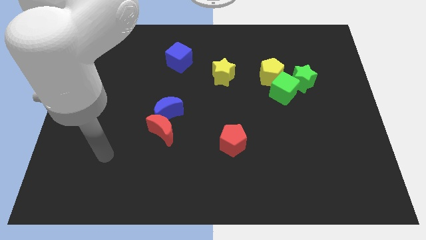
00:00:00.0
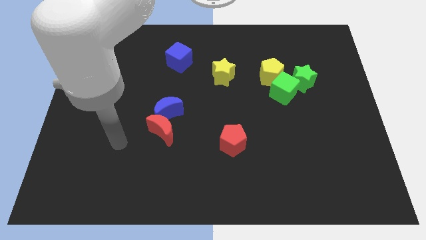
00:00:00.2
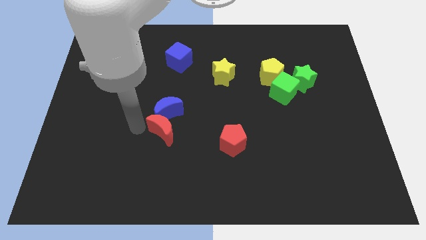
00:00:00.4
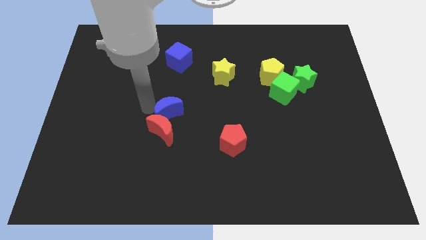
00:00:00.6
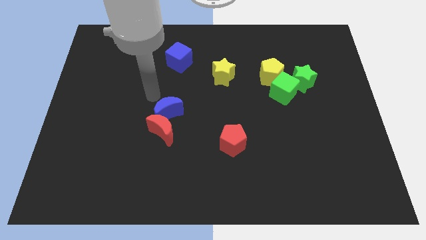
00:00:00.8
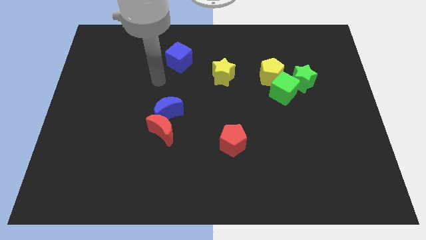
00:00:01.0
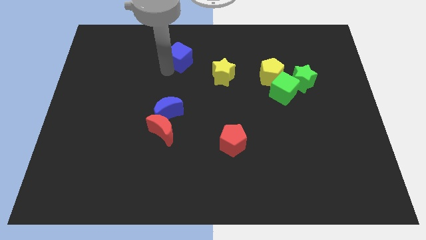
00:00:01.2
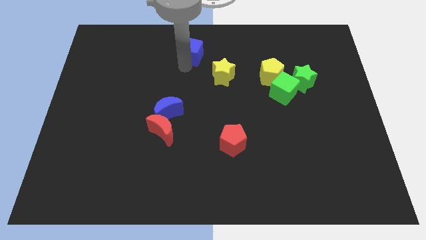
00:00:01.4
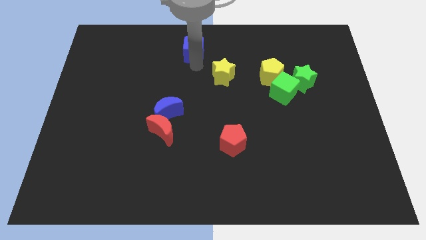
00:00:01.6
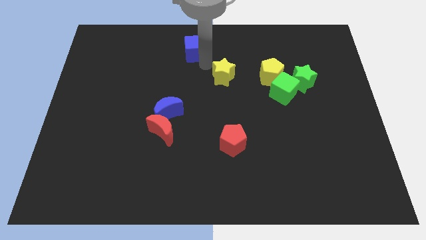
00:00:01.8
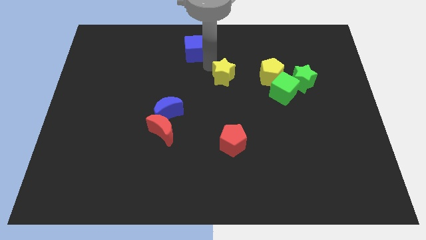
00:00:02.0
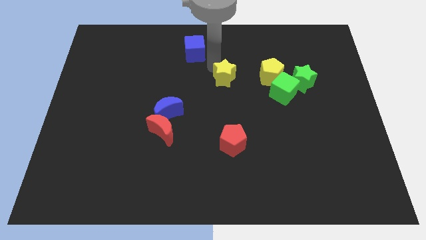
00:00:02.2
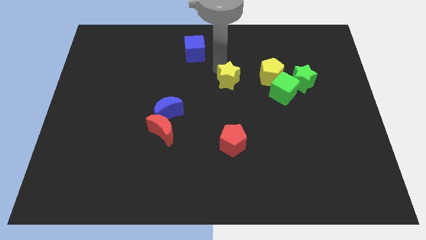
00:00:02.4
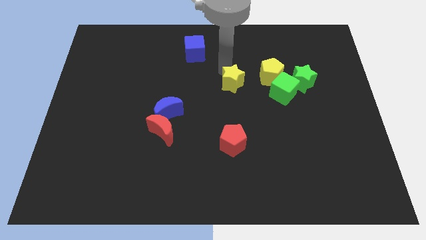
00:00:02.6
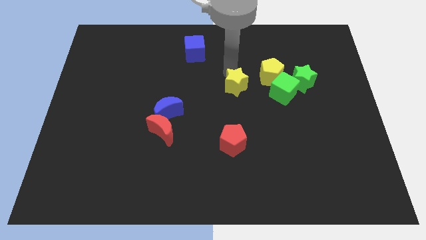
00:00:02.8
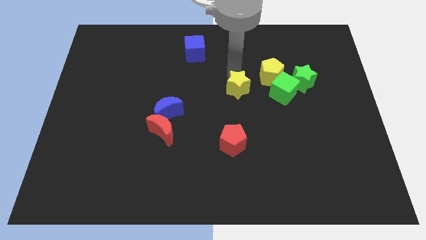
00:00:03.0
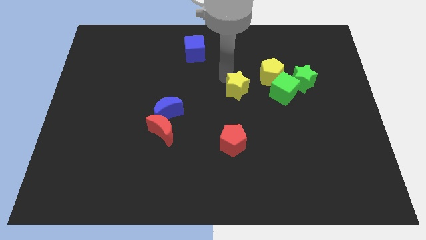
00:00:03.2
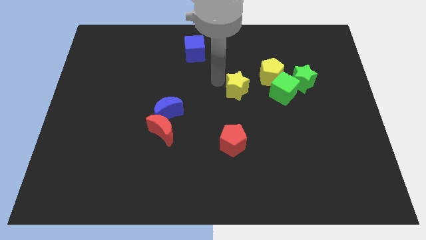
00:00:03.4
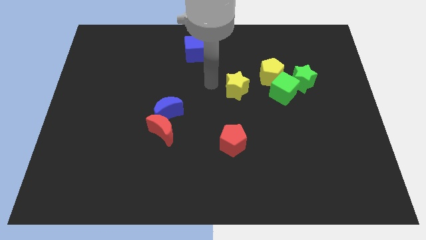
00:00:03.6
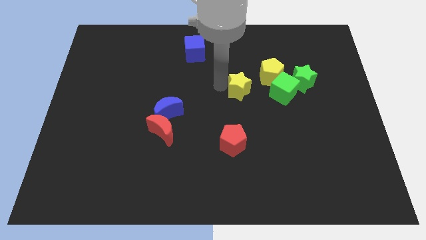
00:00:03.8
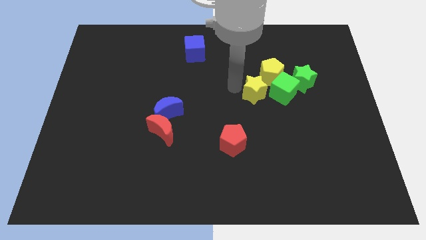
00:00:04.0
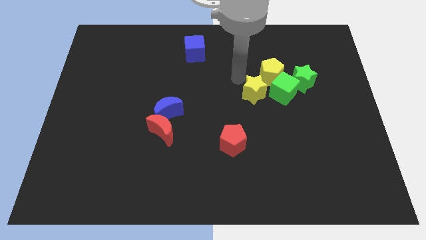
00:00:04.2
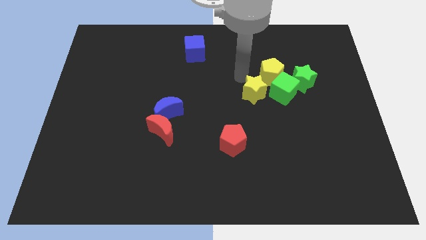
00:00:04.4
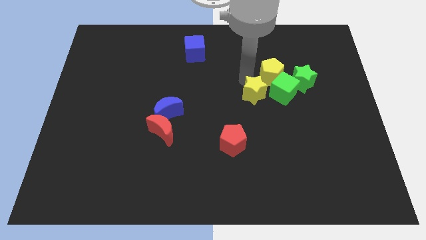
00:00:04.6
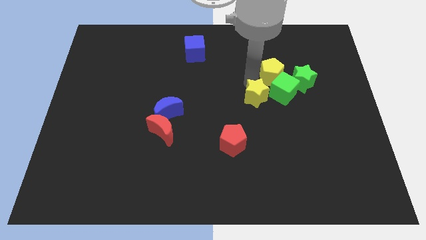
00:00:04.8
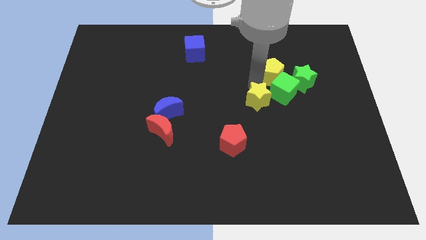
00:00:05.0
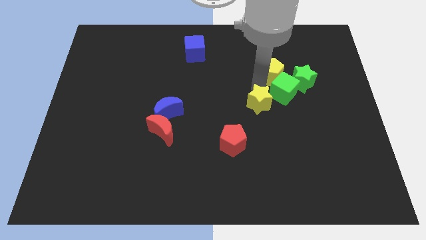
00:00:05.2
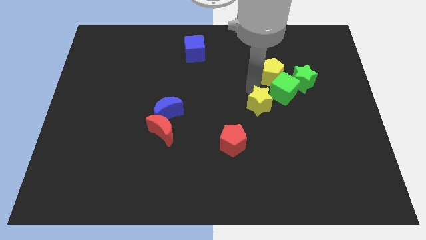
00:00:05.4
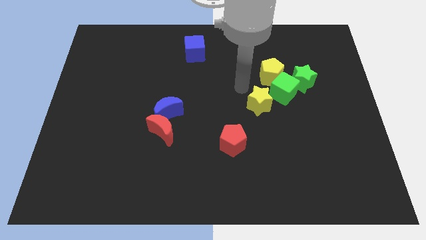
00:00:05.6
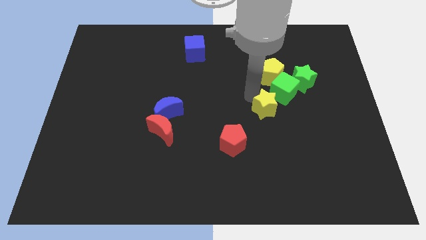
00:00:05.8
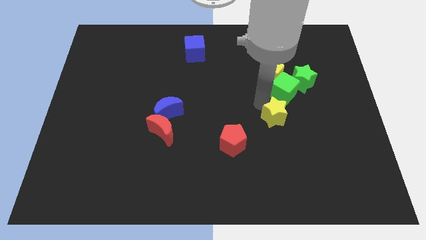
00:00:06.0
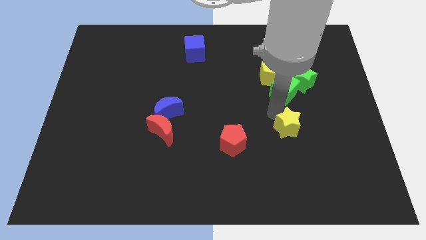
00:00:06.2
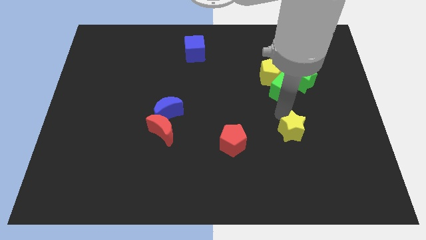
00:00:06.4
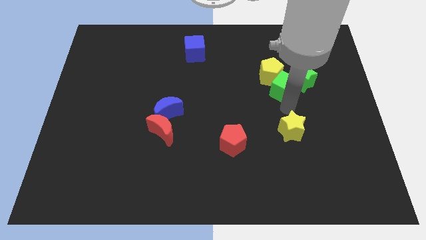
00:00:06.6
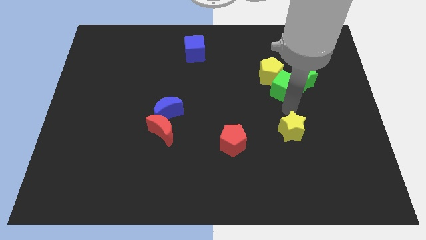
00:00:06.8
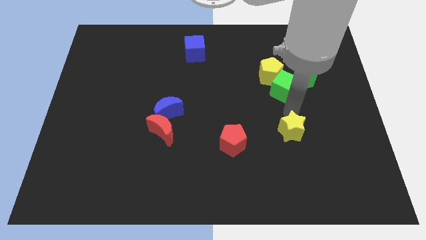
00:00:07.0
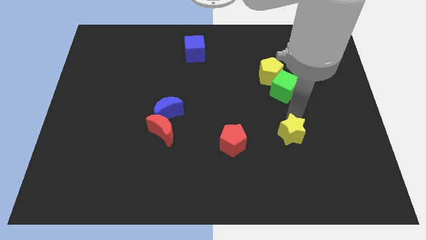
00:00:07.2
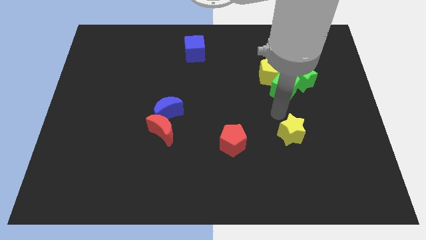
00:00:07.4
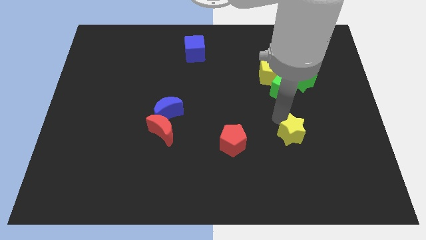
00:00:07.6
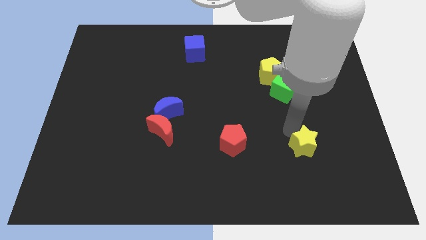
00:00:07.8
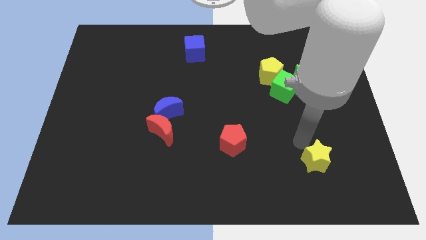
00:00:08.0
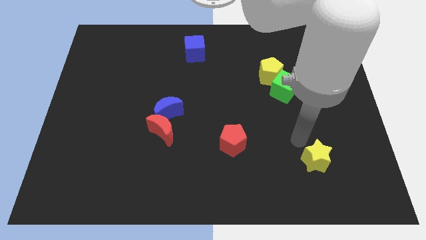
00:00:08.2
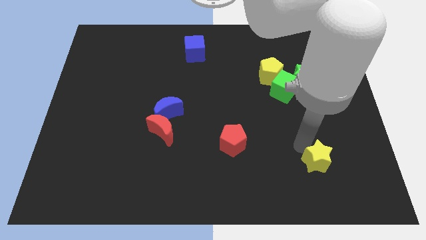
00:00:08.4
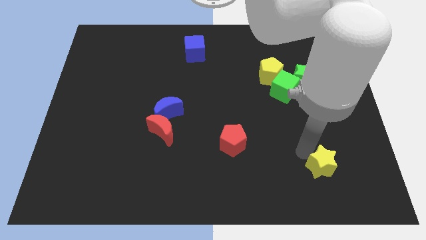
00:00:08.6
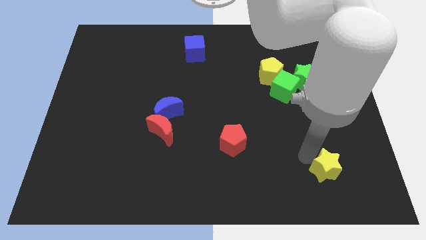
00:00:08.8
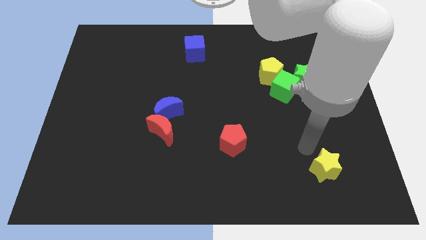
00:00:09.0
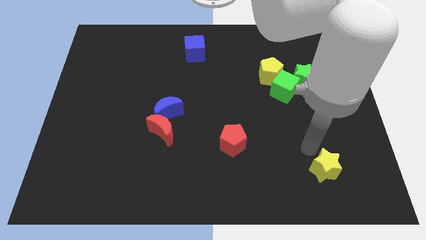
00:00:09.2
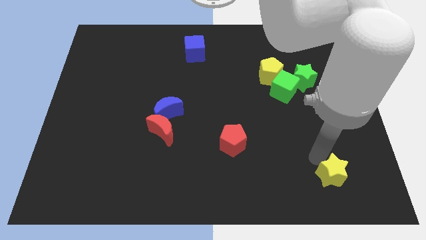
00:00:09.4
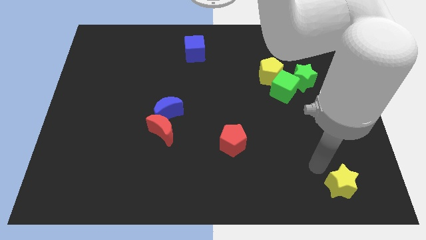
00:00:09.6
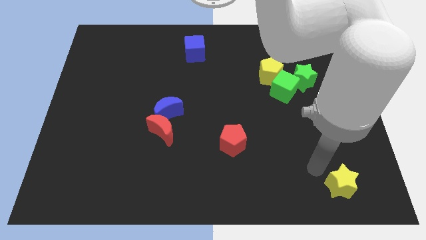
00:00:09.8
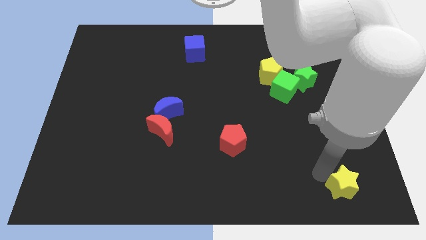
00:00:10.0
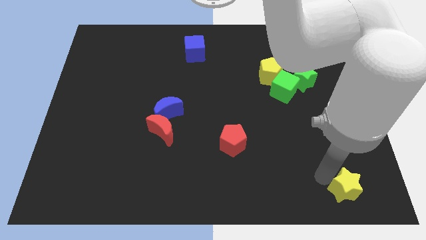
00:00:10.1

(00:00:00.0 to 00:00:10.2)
move the yellow star to the bottom right of the board

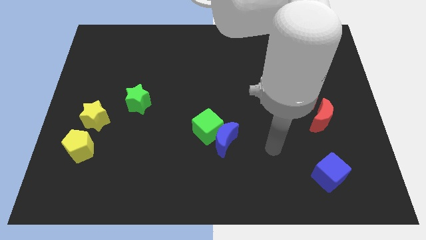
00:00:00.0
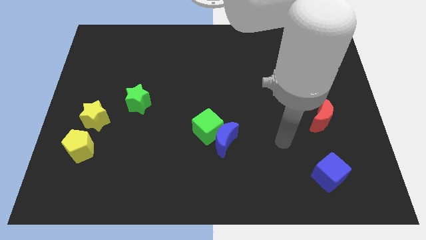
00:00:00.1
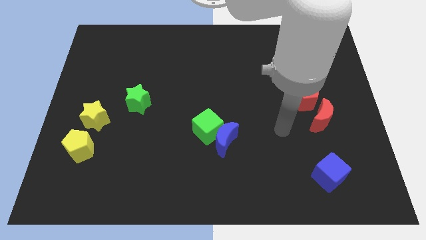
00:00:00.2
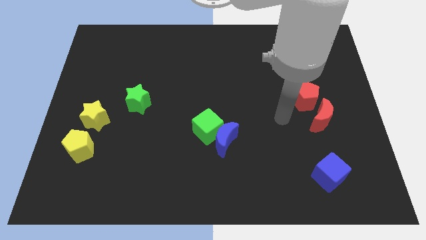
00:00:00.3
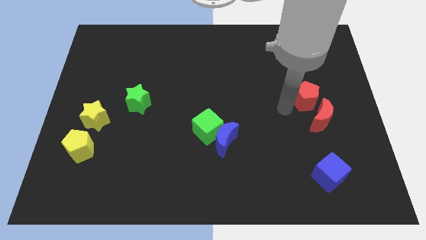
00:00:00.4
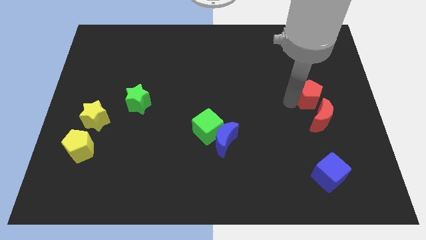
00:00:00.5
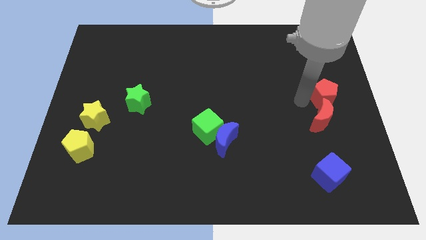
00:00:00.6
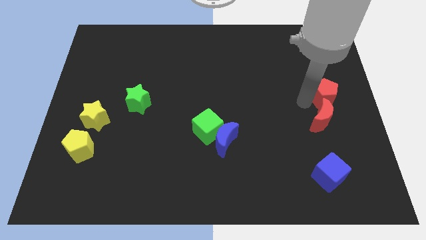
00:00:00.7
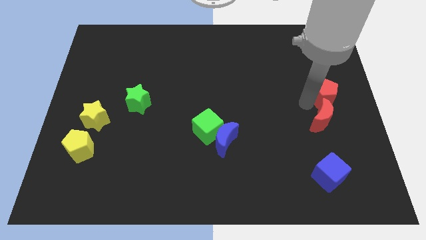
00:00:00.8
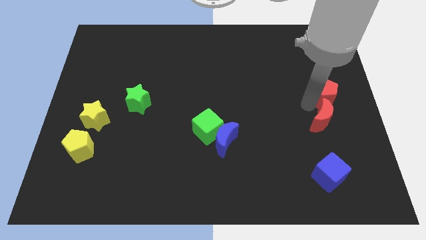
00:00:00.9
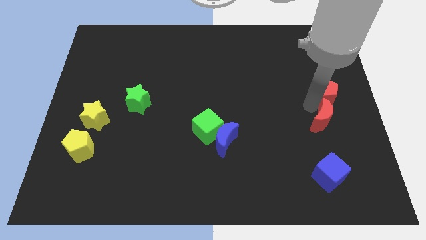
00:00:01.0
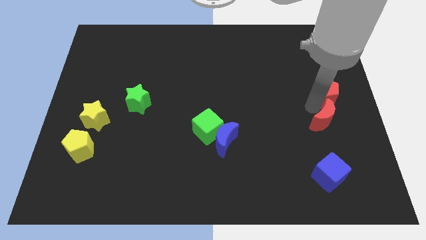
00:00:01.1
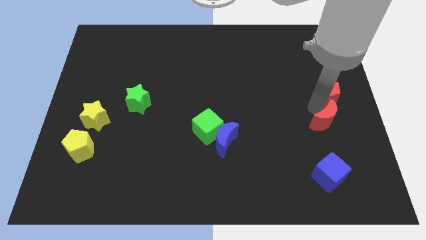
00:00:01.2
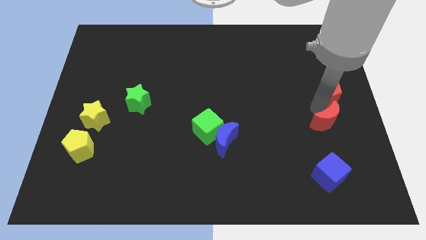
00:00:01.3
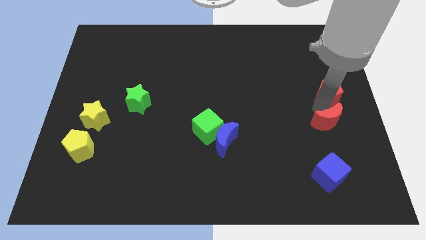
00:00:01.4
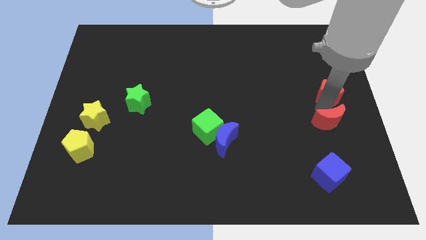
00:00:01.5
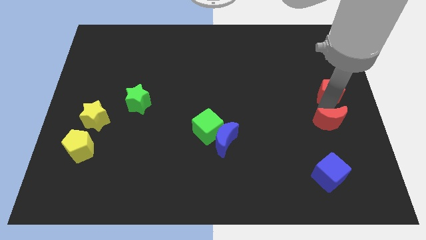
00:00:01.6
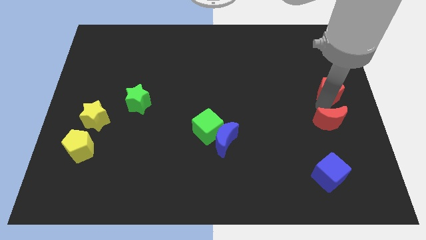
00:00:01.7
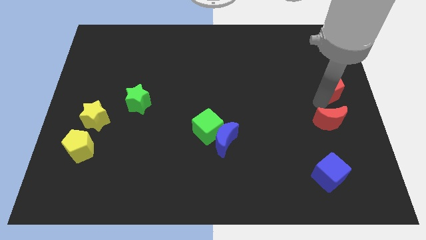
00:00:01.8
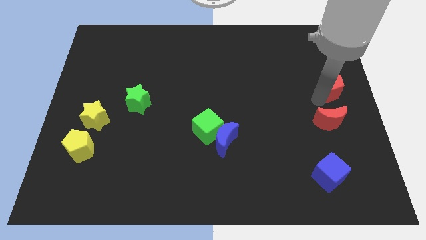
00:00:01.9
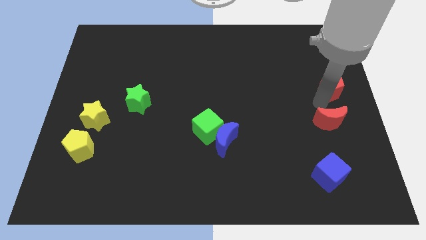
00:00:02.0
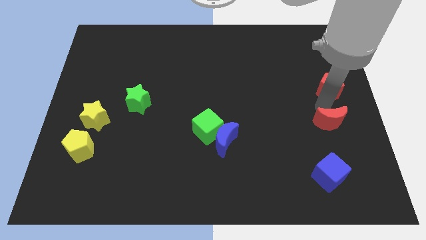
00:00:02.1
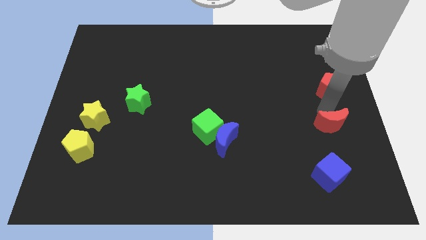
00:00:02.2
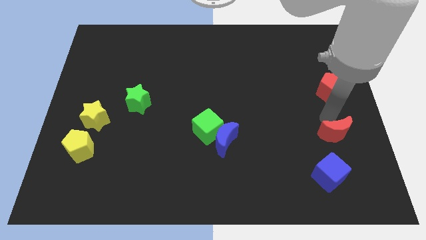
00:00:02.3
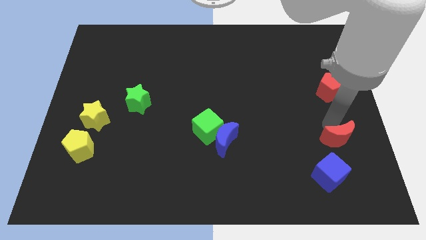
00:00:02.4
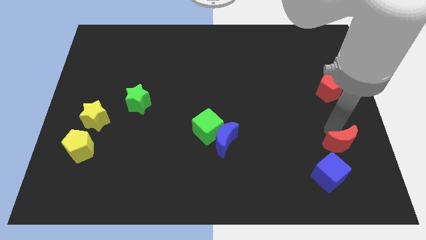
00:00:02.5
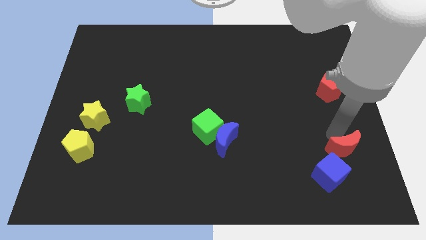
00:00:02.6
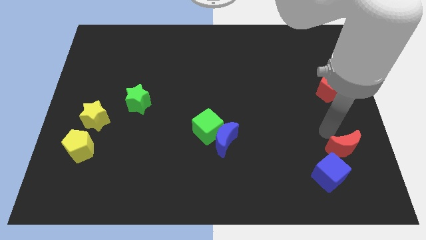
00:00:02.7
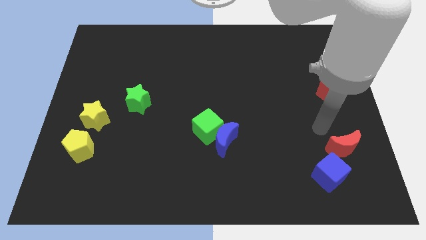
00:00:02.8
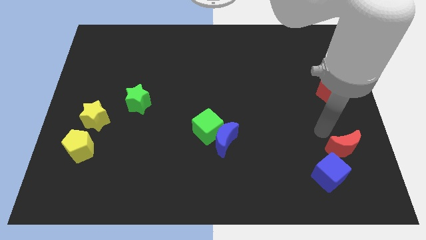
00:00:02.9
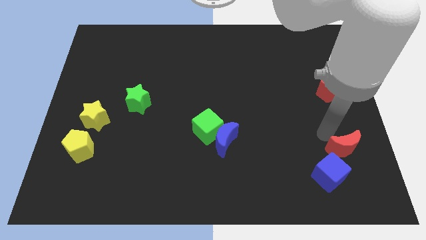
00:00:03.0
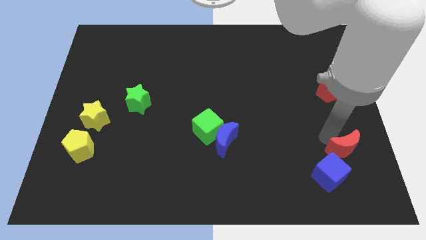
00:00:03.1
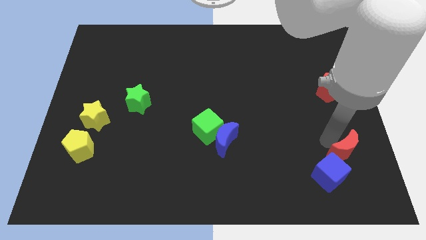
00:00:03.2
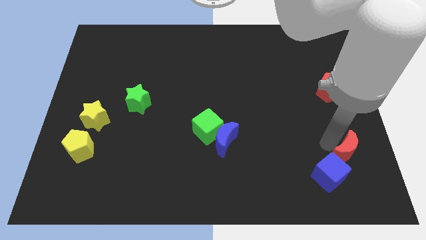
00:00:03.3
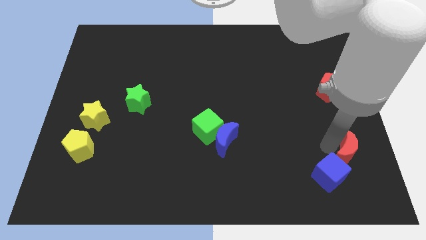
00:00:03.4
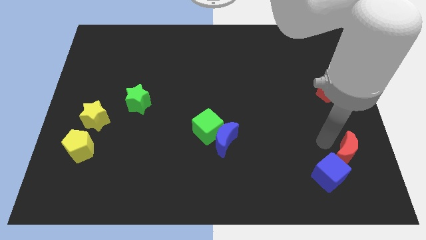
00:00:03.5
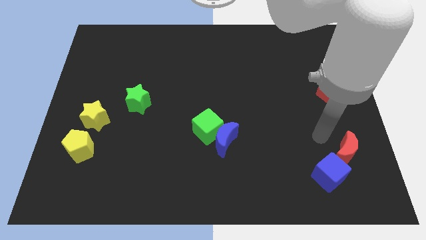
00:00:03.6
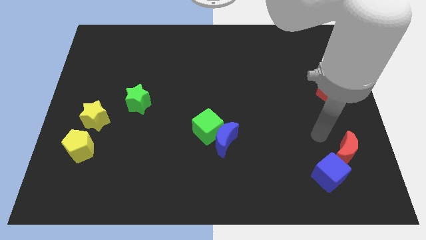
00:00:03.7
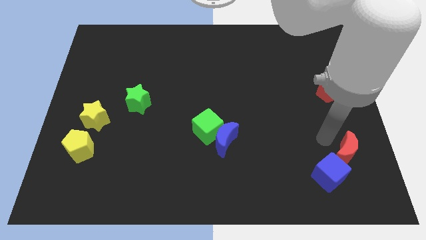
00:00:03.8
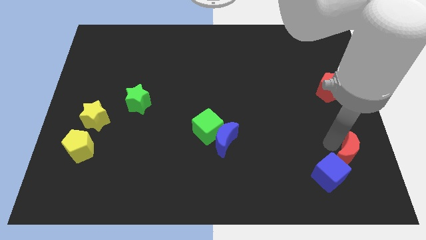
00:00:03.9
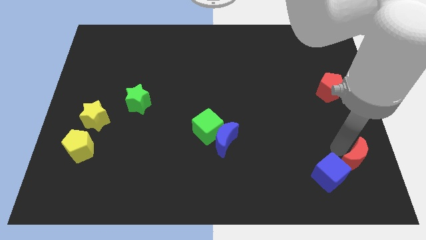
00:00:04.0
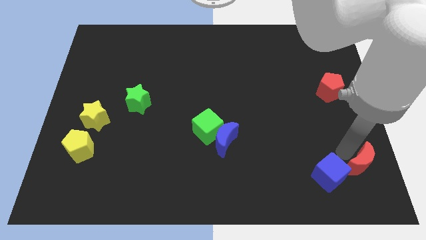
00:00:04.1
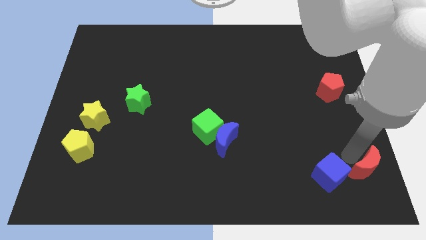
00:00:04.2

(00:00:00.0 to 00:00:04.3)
move the red moon to the lower right corner
